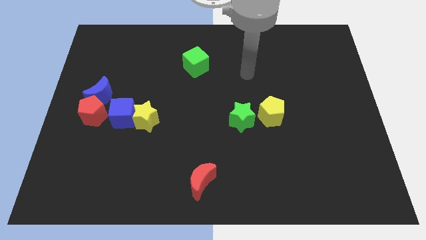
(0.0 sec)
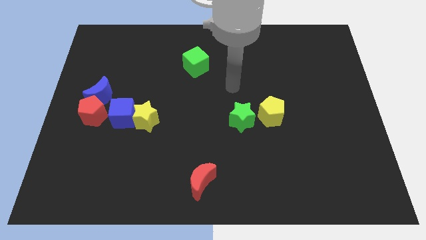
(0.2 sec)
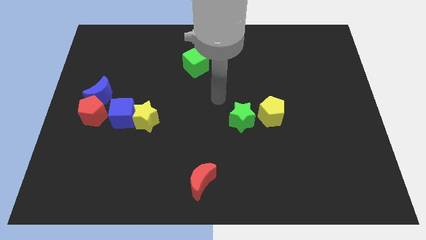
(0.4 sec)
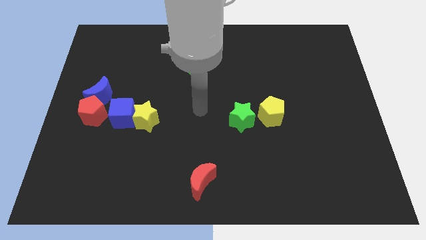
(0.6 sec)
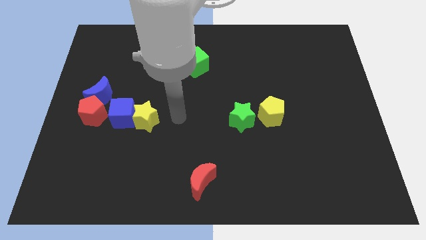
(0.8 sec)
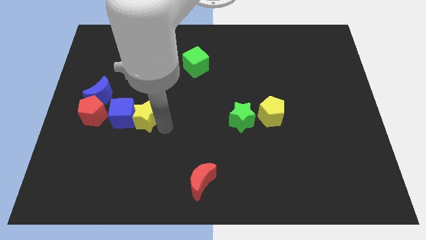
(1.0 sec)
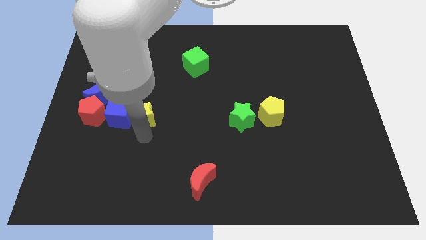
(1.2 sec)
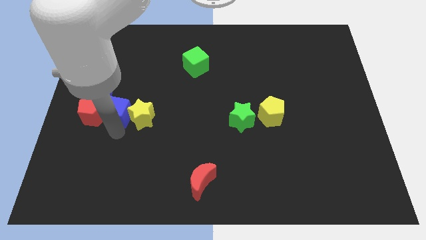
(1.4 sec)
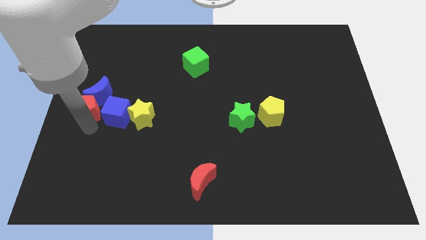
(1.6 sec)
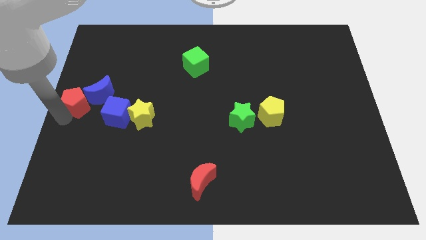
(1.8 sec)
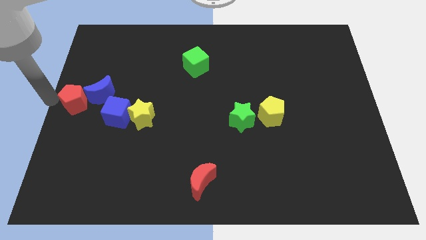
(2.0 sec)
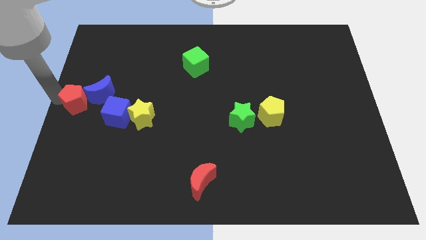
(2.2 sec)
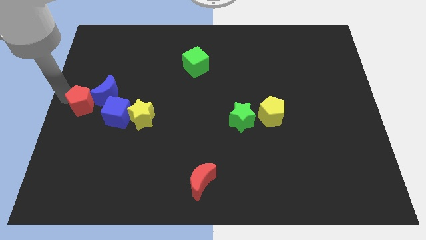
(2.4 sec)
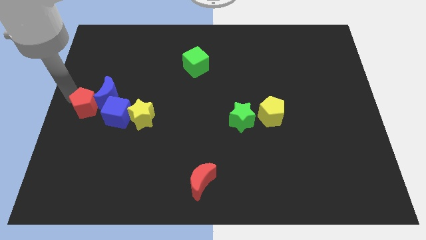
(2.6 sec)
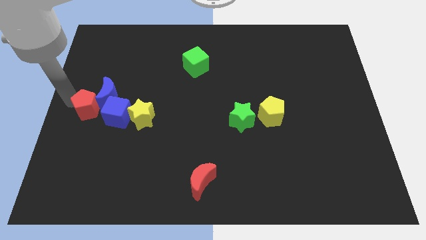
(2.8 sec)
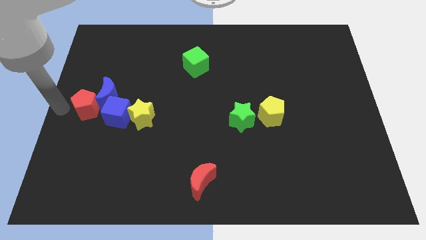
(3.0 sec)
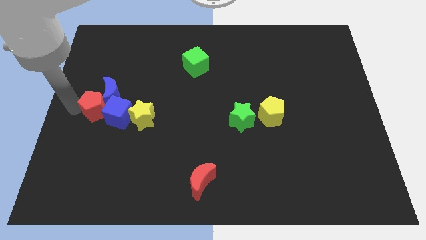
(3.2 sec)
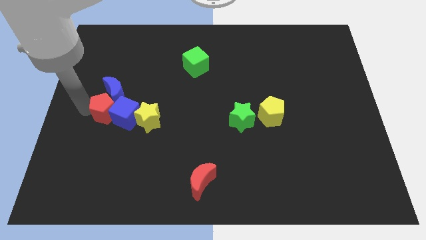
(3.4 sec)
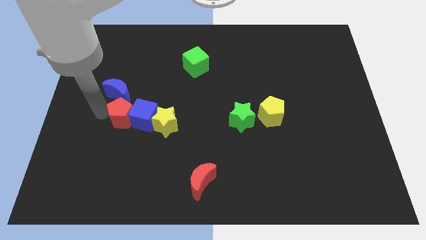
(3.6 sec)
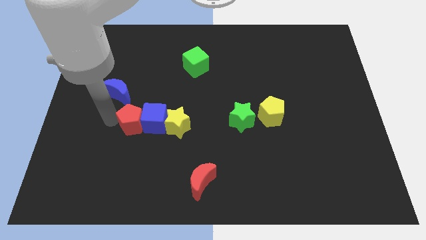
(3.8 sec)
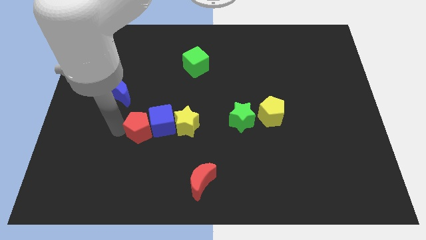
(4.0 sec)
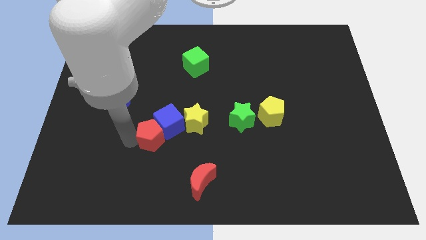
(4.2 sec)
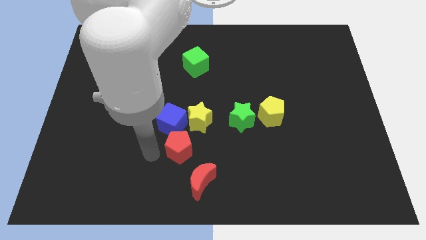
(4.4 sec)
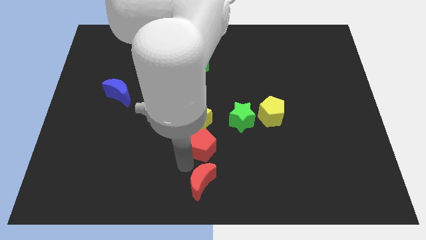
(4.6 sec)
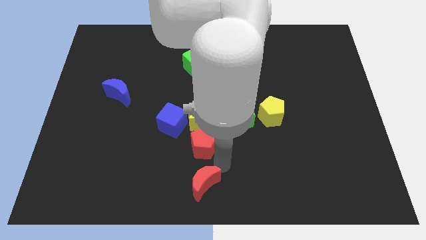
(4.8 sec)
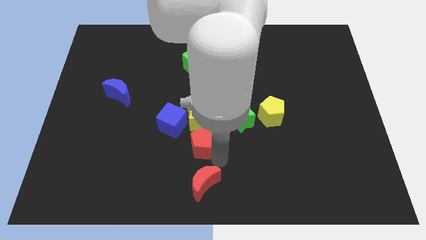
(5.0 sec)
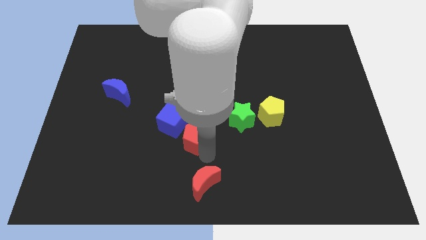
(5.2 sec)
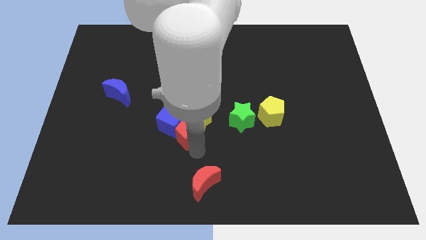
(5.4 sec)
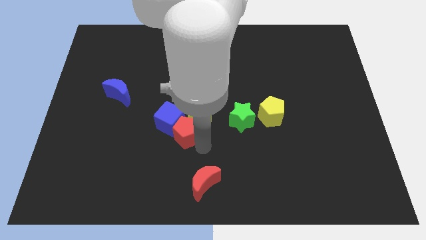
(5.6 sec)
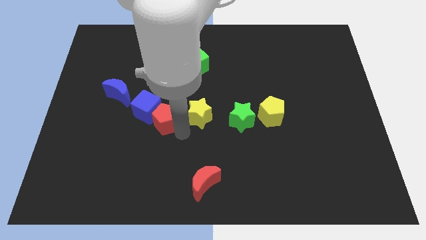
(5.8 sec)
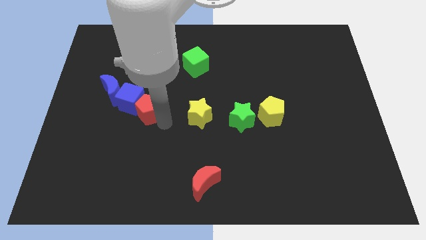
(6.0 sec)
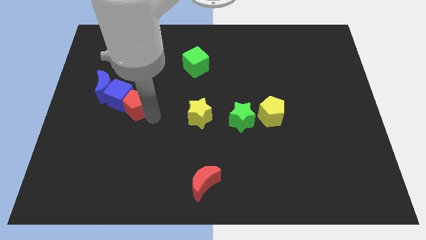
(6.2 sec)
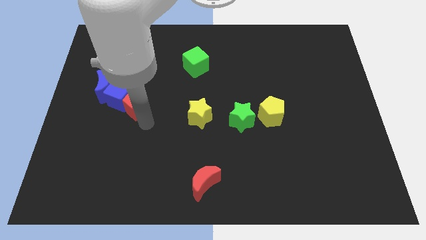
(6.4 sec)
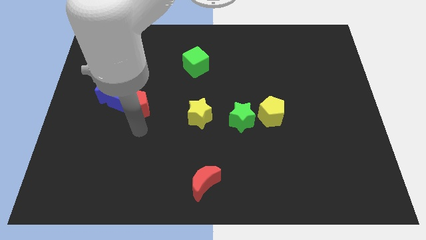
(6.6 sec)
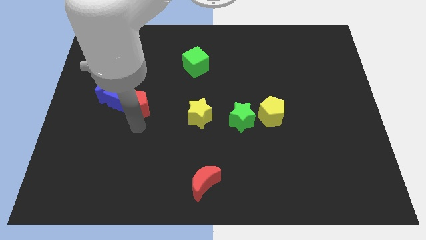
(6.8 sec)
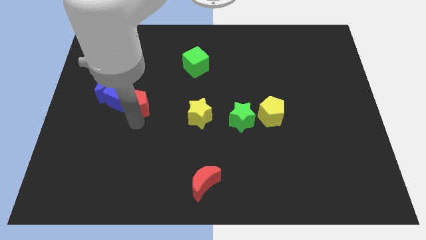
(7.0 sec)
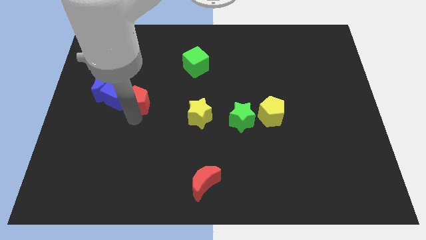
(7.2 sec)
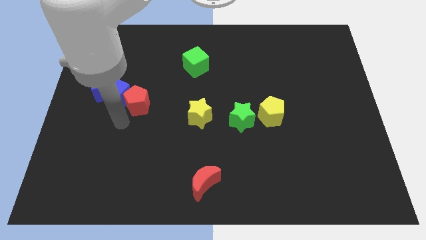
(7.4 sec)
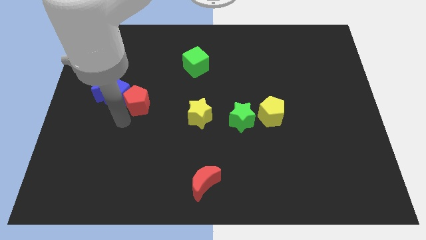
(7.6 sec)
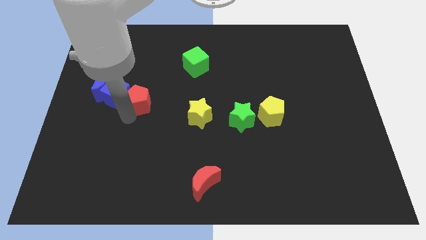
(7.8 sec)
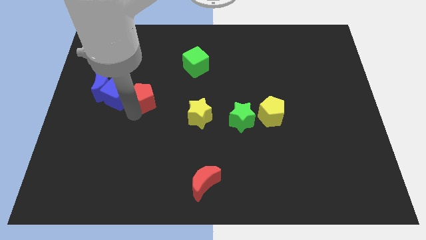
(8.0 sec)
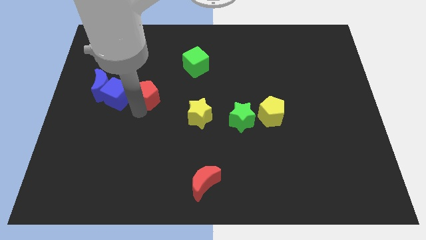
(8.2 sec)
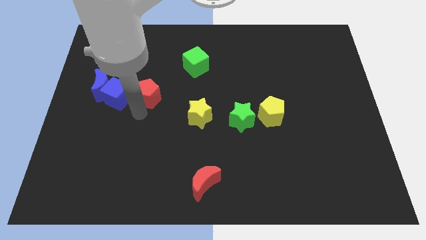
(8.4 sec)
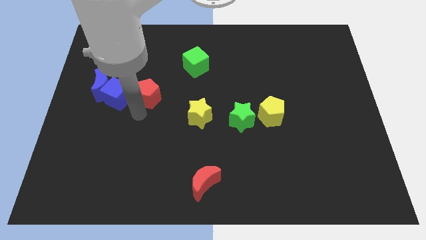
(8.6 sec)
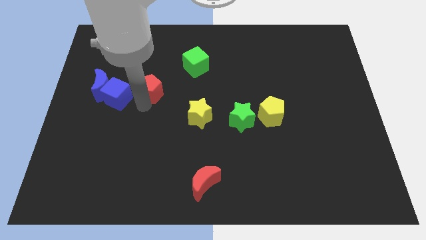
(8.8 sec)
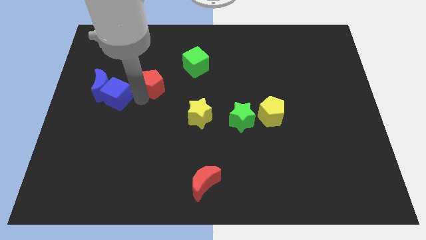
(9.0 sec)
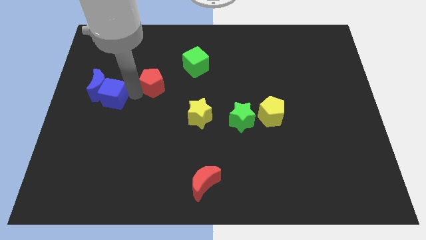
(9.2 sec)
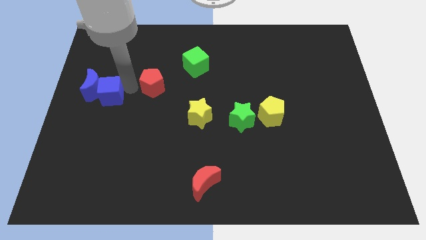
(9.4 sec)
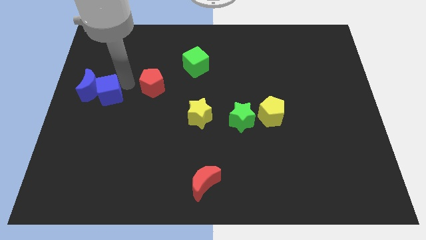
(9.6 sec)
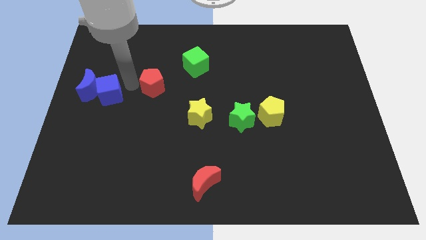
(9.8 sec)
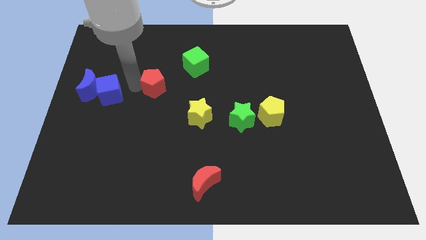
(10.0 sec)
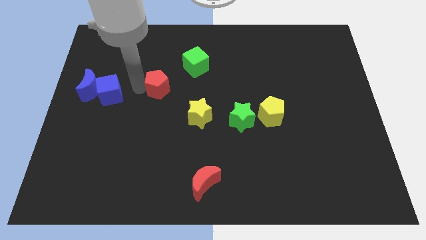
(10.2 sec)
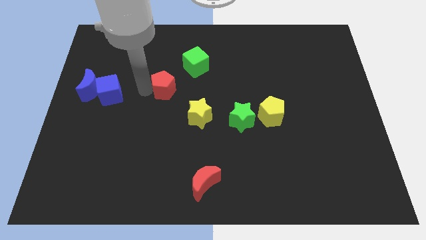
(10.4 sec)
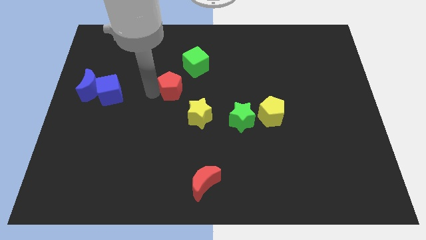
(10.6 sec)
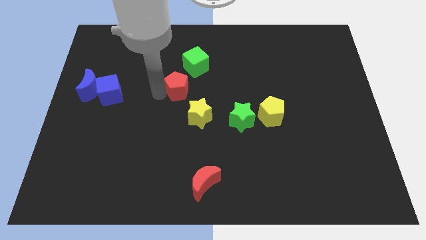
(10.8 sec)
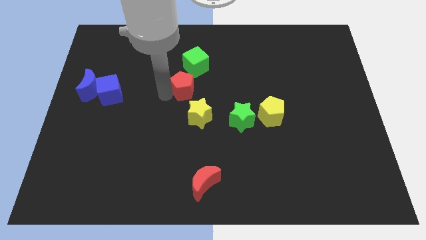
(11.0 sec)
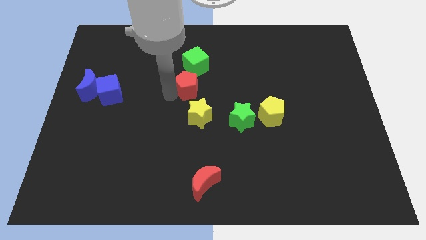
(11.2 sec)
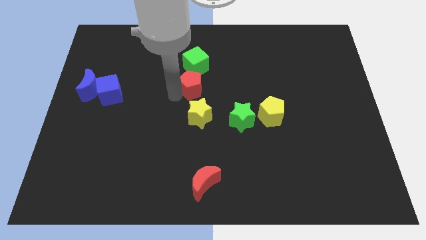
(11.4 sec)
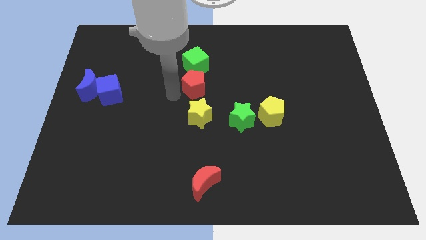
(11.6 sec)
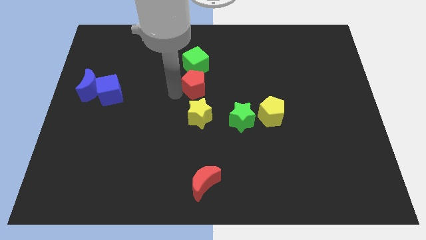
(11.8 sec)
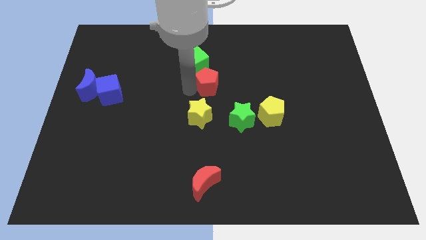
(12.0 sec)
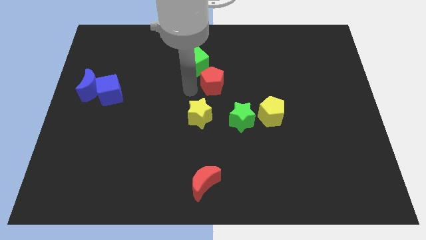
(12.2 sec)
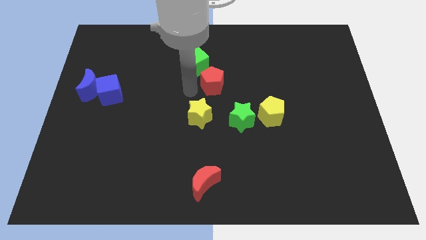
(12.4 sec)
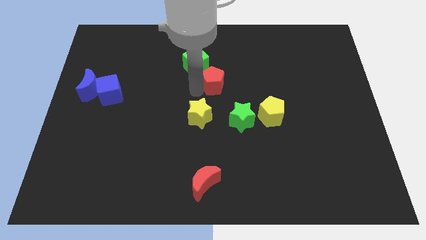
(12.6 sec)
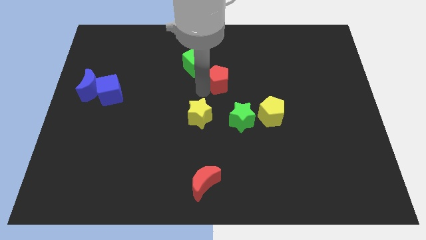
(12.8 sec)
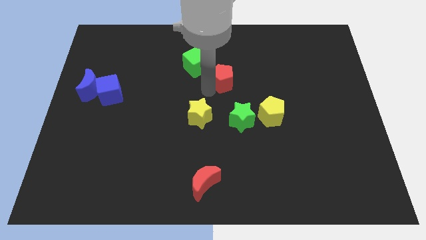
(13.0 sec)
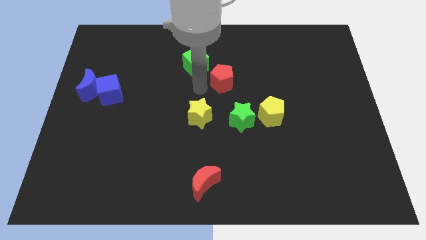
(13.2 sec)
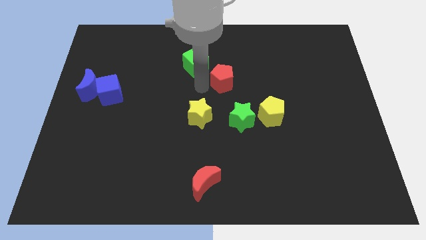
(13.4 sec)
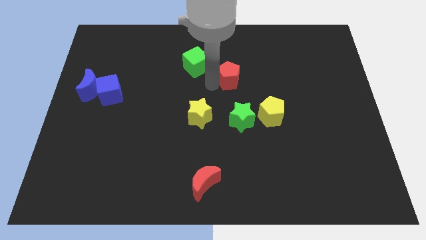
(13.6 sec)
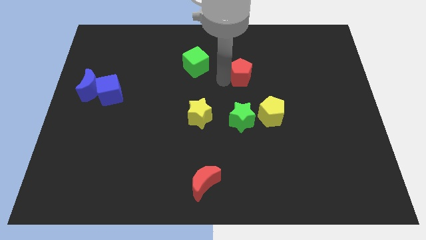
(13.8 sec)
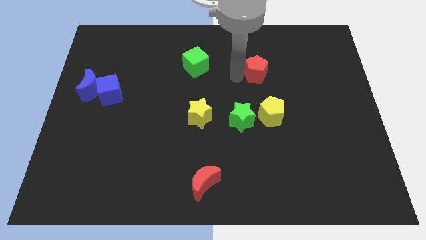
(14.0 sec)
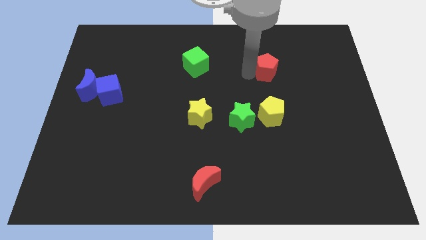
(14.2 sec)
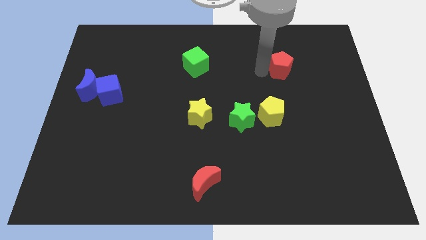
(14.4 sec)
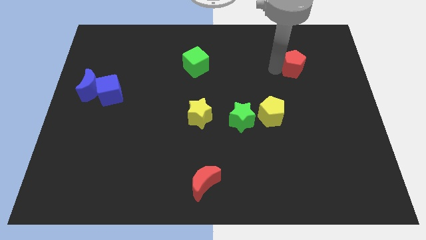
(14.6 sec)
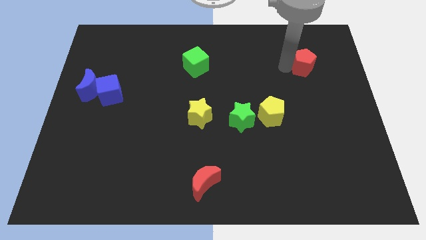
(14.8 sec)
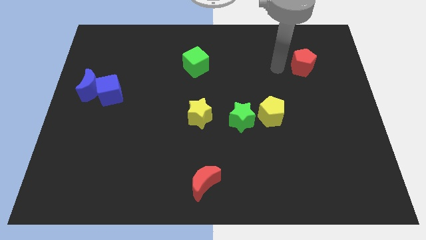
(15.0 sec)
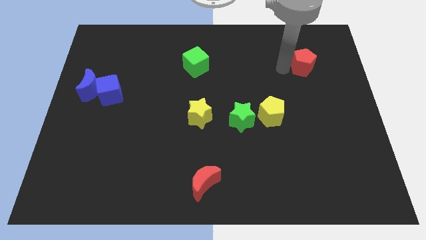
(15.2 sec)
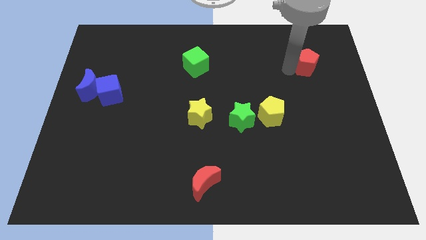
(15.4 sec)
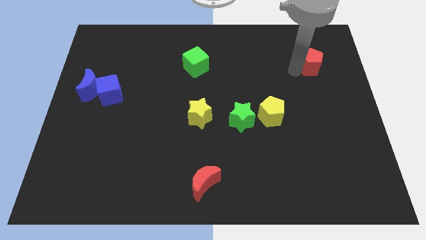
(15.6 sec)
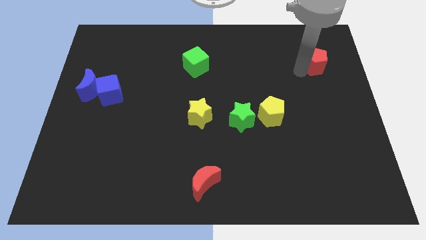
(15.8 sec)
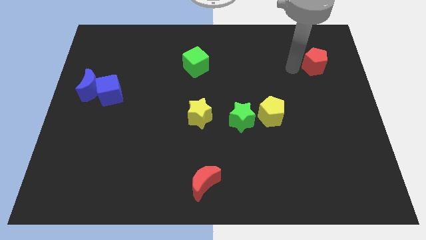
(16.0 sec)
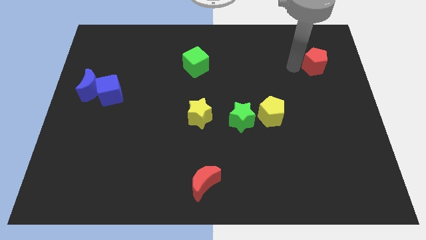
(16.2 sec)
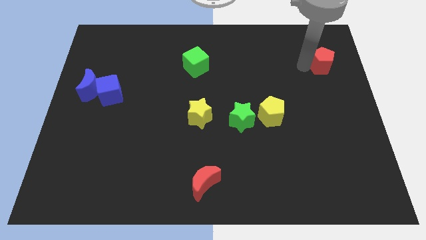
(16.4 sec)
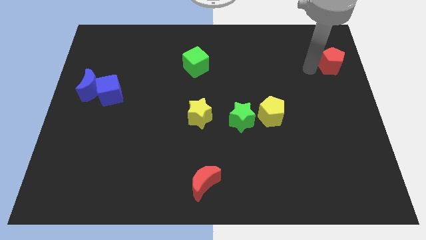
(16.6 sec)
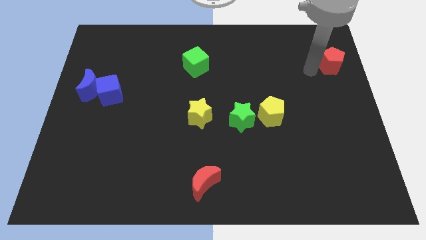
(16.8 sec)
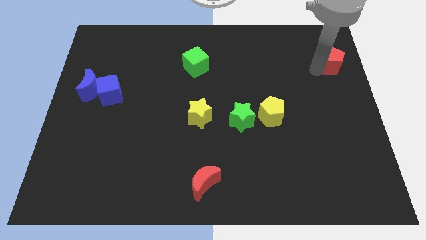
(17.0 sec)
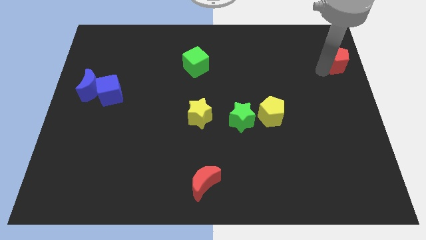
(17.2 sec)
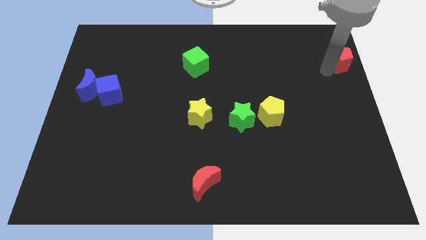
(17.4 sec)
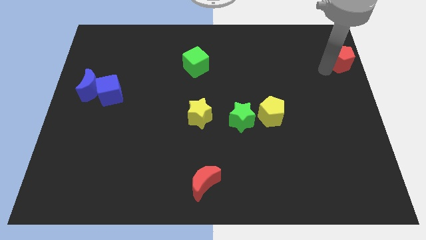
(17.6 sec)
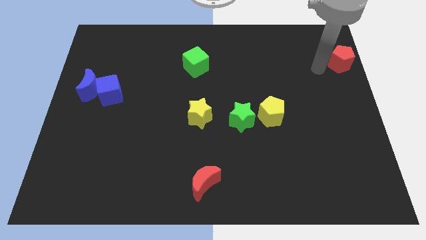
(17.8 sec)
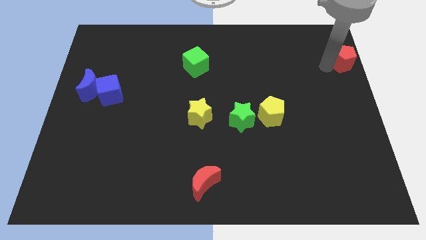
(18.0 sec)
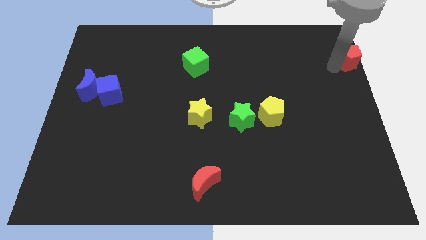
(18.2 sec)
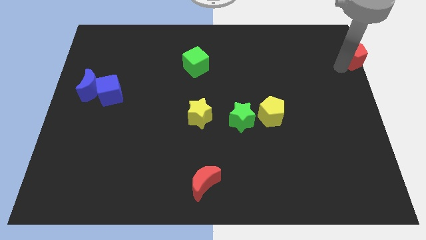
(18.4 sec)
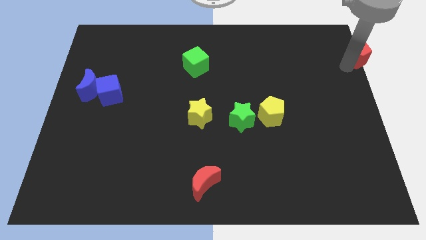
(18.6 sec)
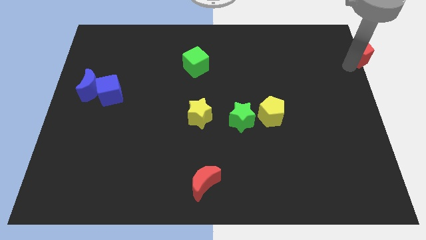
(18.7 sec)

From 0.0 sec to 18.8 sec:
push the red pentagon to the upper right corner
